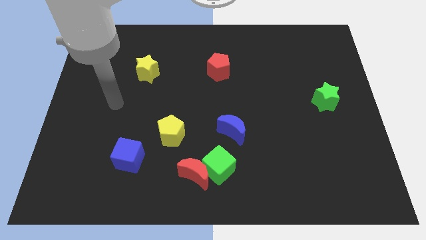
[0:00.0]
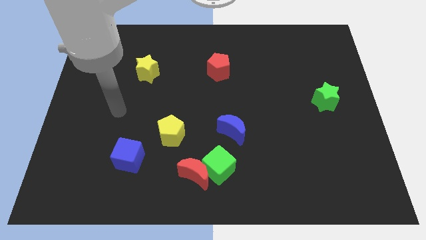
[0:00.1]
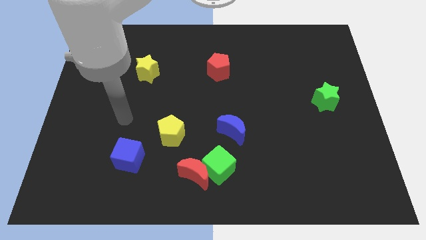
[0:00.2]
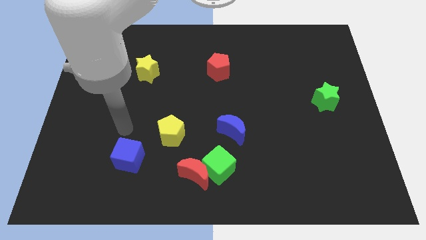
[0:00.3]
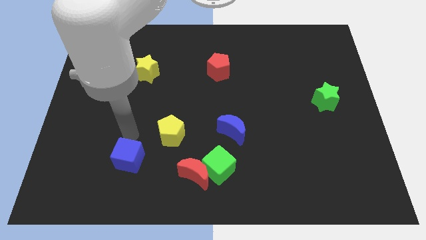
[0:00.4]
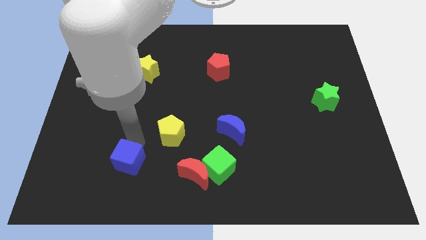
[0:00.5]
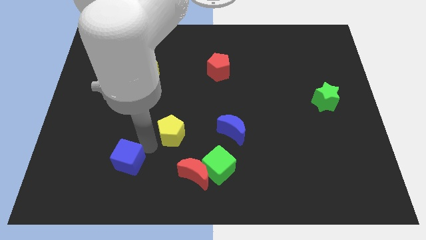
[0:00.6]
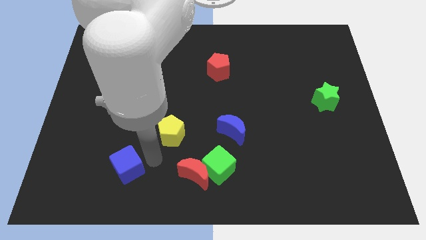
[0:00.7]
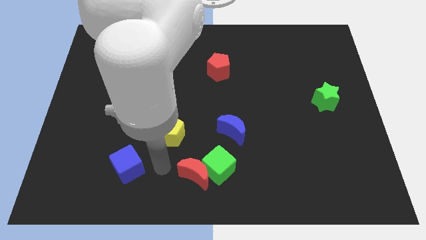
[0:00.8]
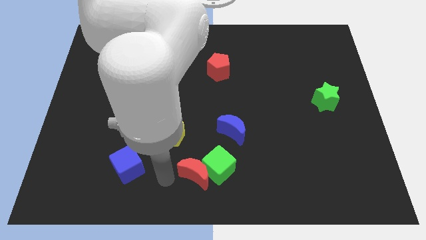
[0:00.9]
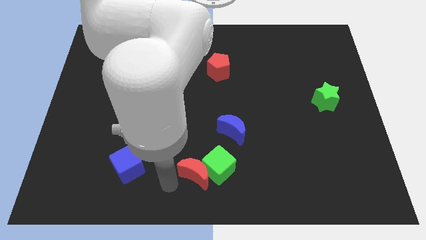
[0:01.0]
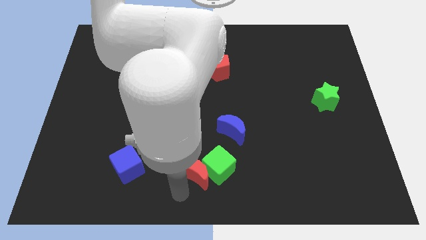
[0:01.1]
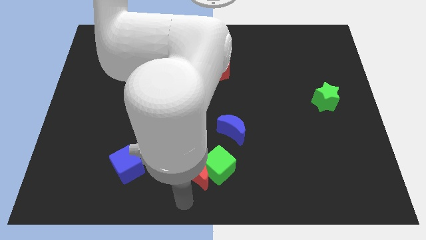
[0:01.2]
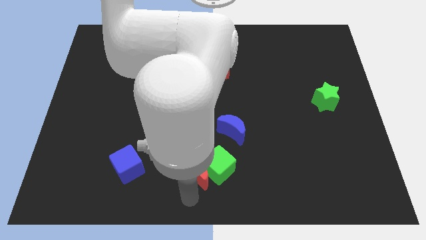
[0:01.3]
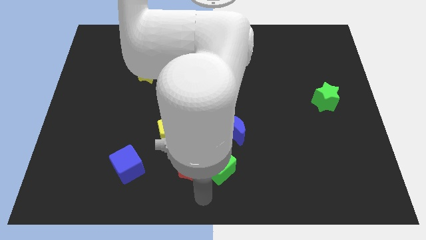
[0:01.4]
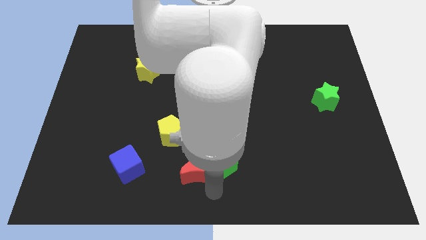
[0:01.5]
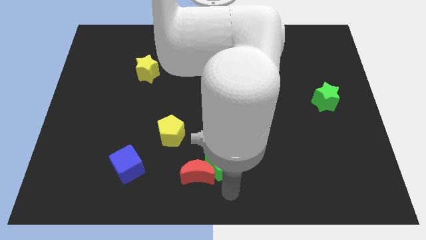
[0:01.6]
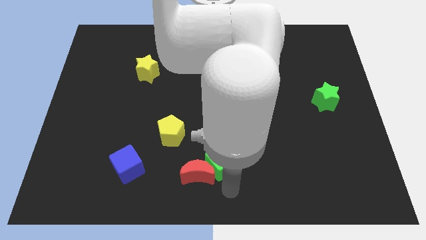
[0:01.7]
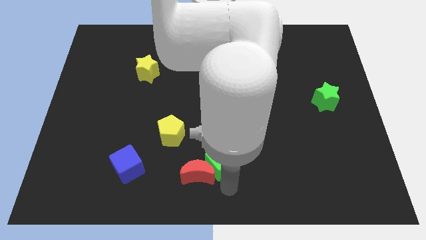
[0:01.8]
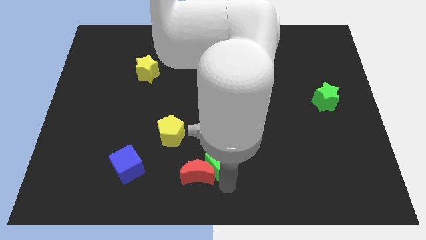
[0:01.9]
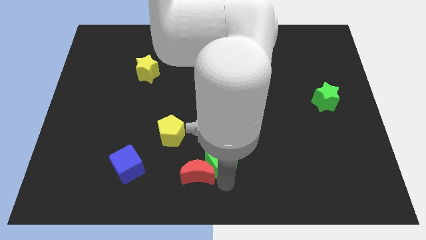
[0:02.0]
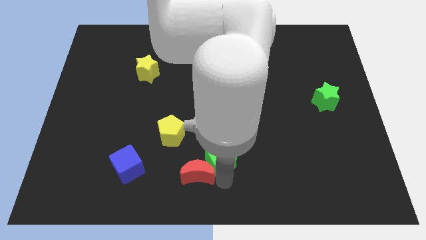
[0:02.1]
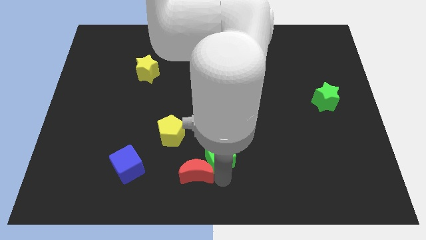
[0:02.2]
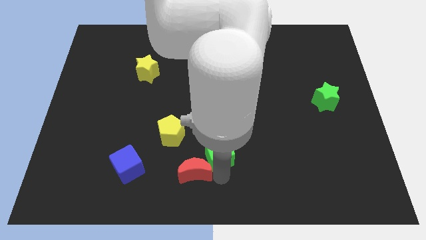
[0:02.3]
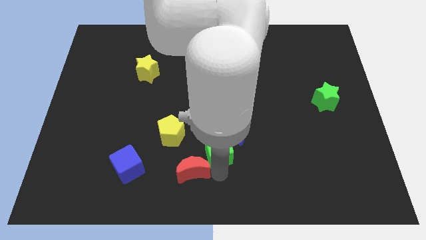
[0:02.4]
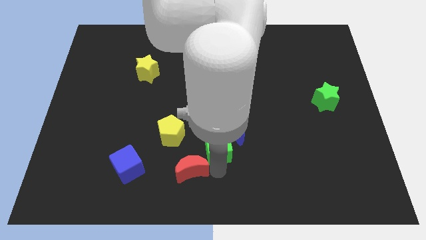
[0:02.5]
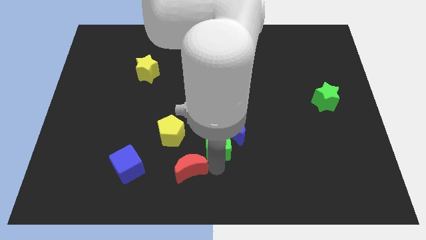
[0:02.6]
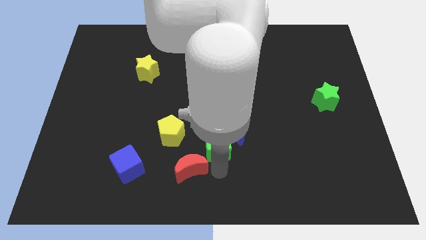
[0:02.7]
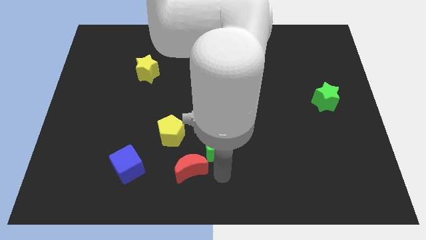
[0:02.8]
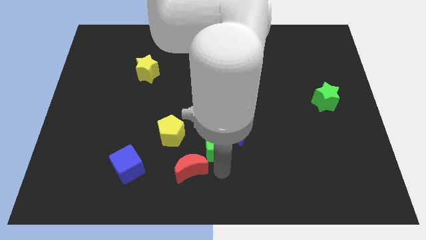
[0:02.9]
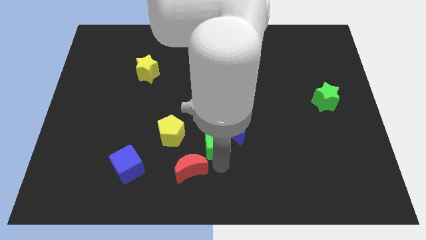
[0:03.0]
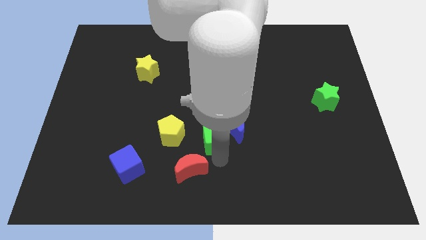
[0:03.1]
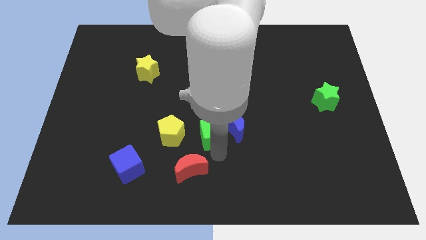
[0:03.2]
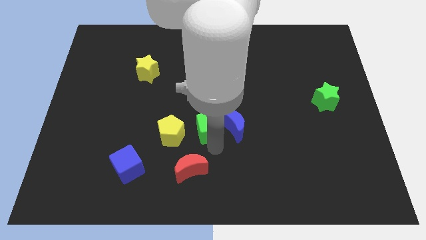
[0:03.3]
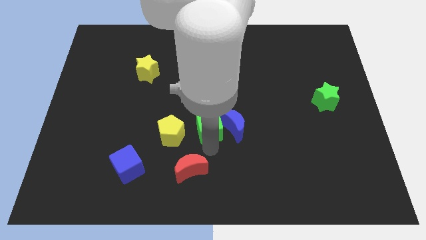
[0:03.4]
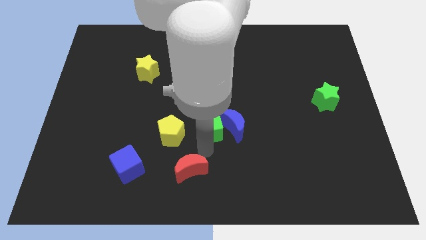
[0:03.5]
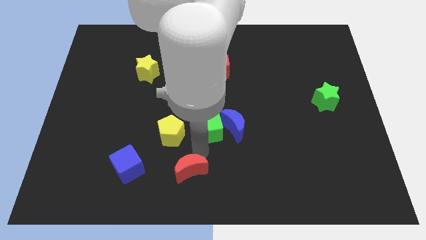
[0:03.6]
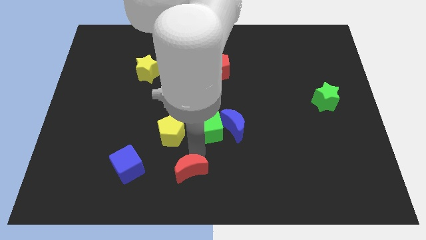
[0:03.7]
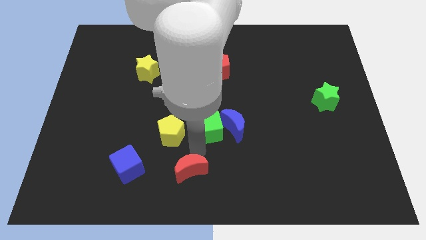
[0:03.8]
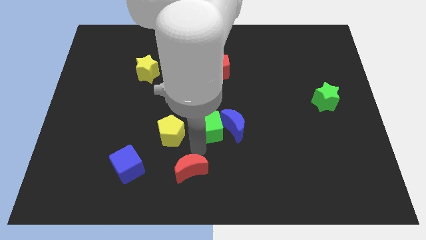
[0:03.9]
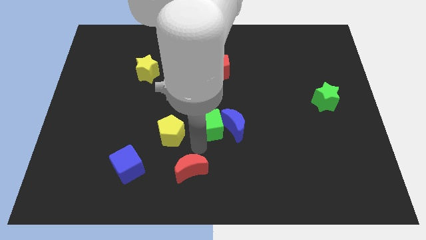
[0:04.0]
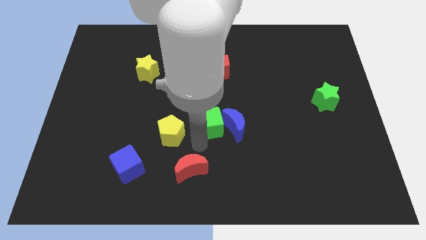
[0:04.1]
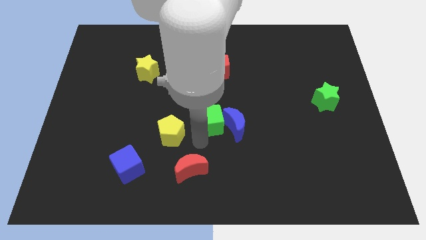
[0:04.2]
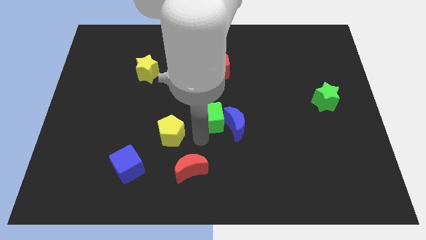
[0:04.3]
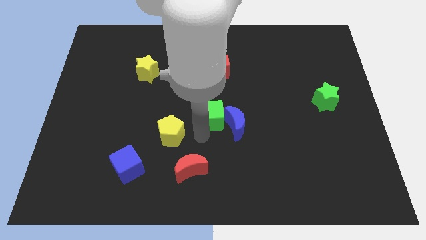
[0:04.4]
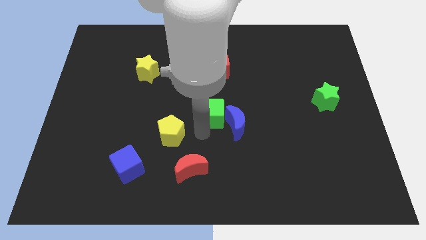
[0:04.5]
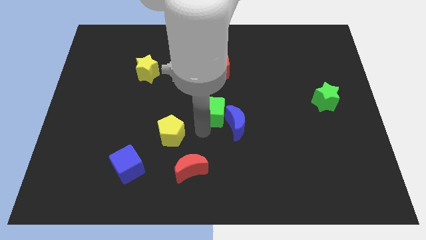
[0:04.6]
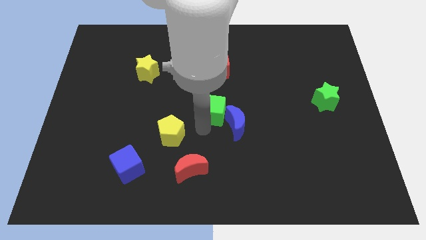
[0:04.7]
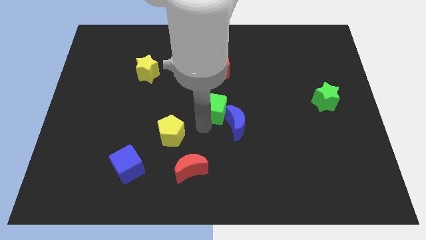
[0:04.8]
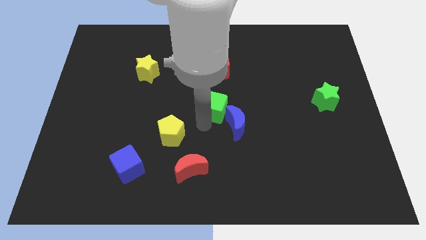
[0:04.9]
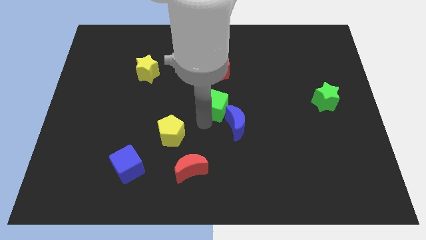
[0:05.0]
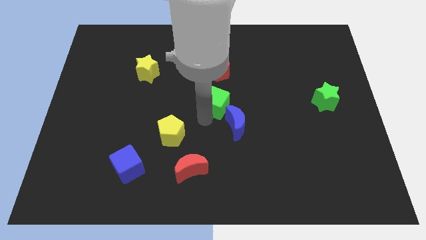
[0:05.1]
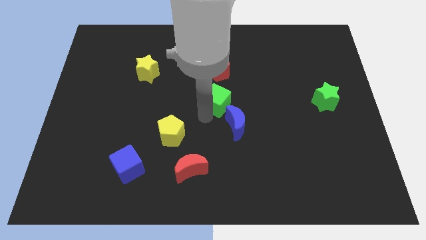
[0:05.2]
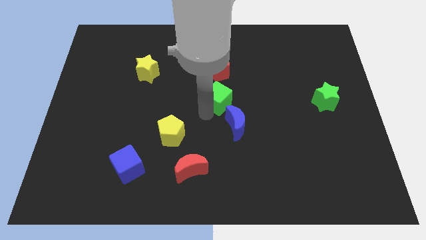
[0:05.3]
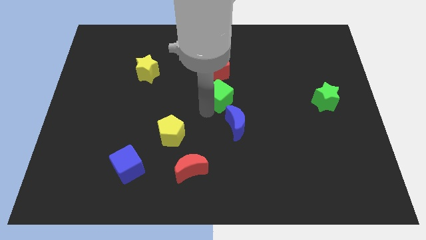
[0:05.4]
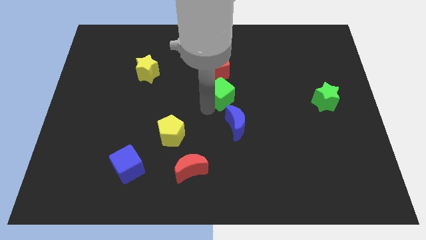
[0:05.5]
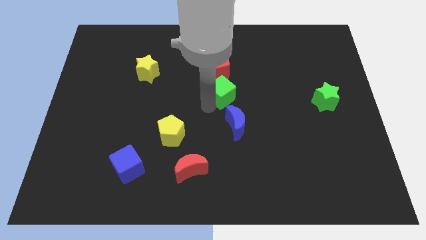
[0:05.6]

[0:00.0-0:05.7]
move the green cube up

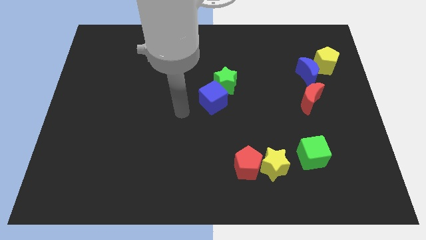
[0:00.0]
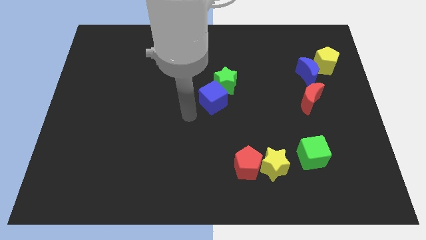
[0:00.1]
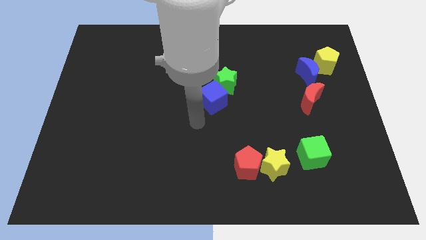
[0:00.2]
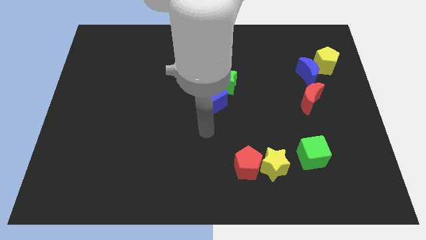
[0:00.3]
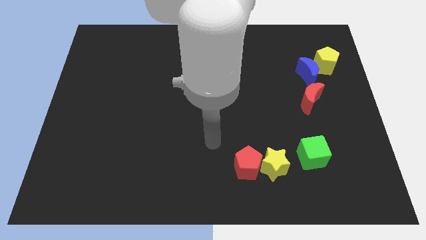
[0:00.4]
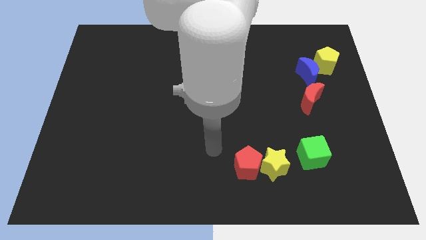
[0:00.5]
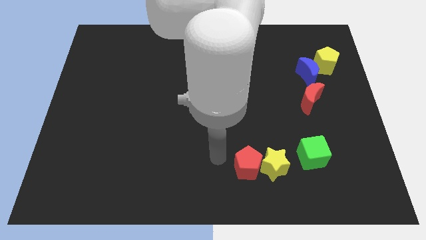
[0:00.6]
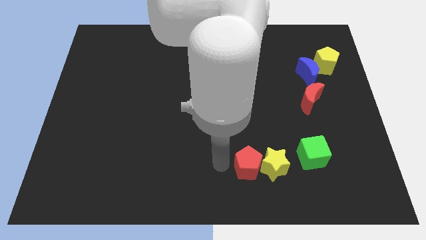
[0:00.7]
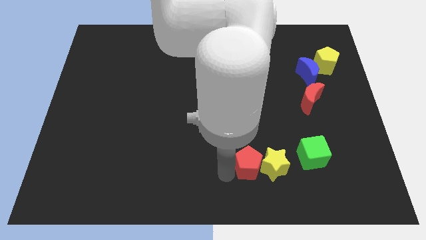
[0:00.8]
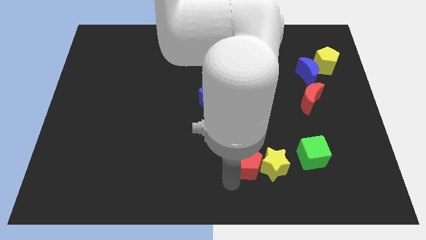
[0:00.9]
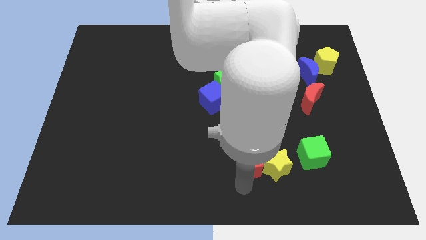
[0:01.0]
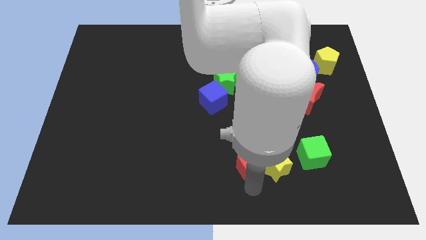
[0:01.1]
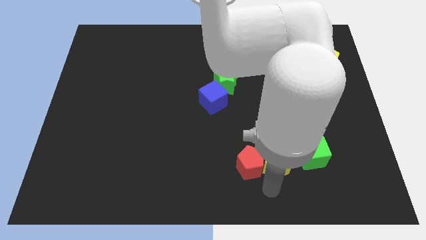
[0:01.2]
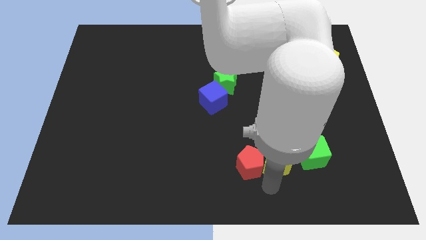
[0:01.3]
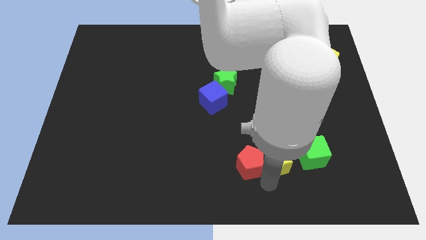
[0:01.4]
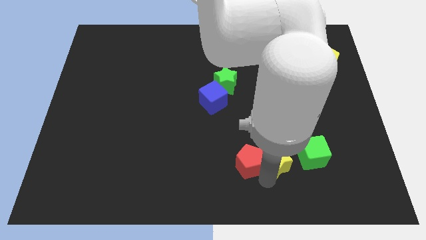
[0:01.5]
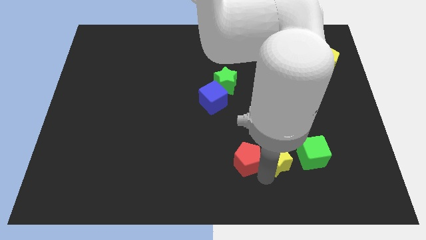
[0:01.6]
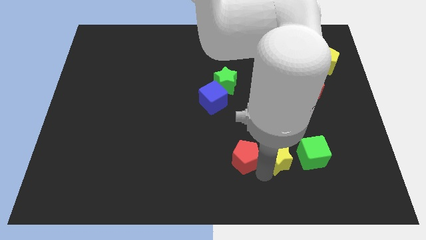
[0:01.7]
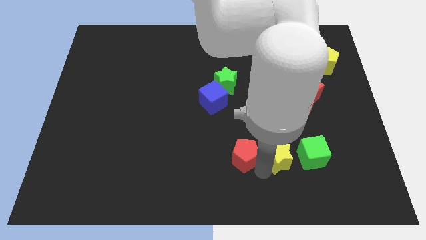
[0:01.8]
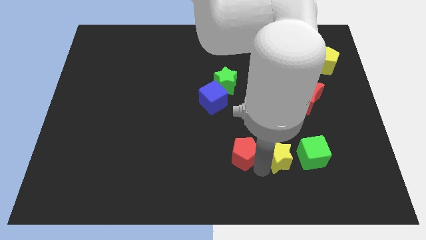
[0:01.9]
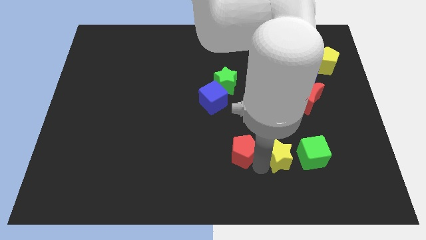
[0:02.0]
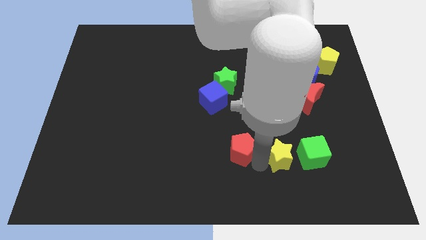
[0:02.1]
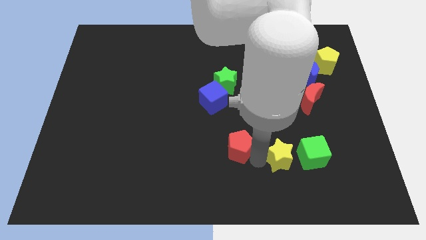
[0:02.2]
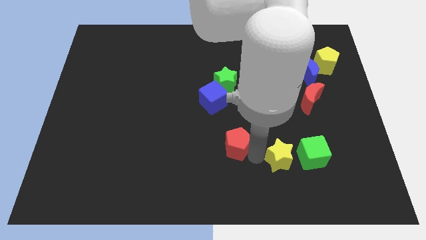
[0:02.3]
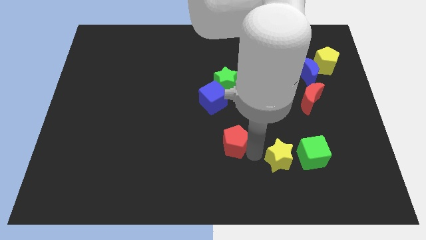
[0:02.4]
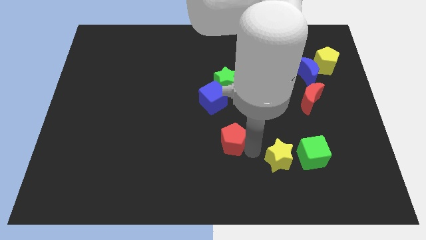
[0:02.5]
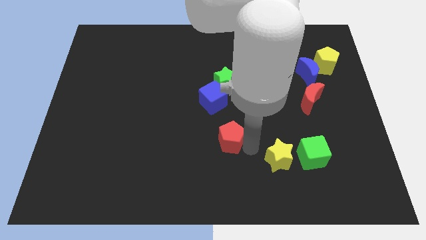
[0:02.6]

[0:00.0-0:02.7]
move the red pentagon upwards and to the left slightly
